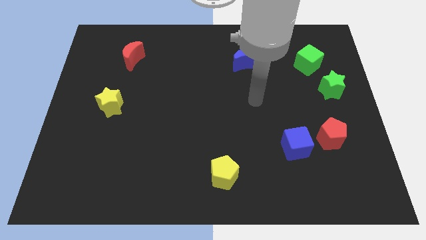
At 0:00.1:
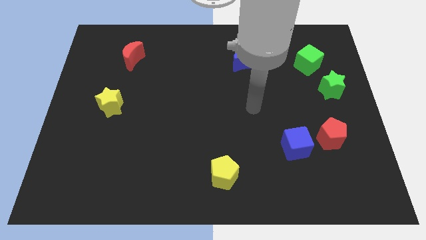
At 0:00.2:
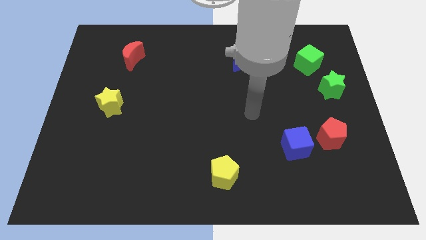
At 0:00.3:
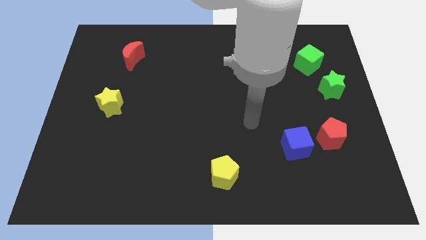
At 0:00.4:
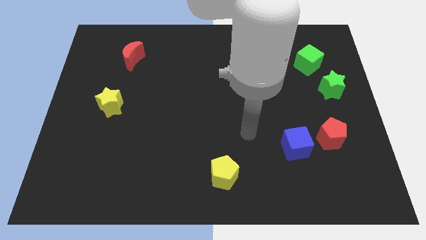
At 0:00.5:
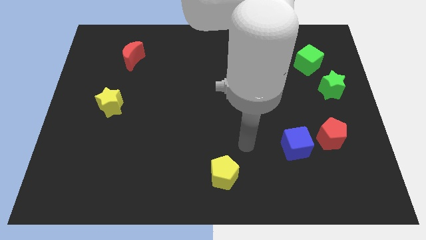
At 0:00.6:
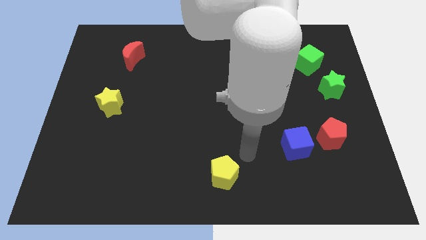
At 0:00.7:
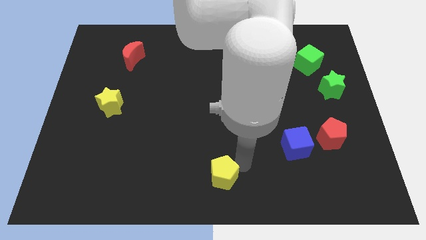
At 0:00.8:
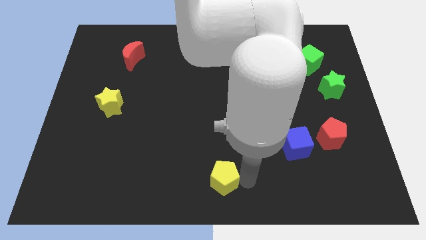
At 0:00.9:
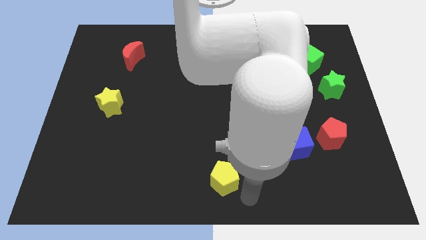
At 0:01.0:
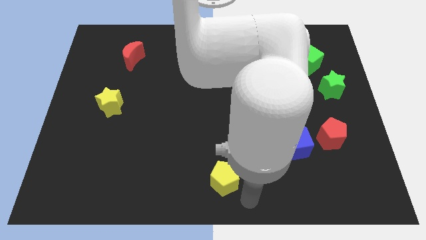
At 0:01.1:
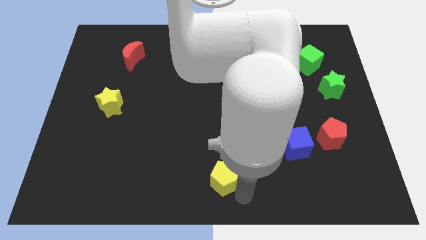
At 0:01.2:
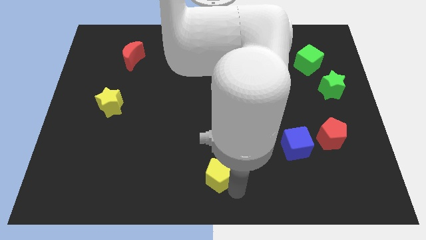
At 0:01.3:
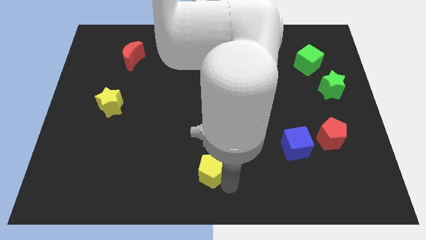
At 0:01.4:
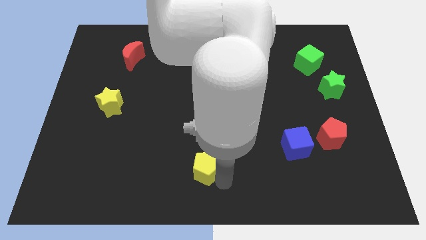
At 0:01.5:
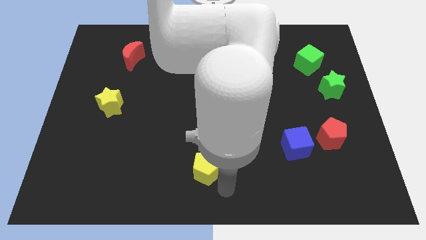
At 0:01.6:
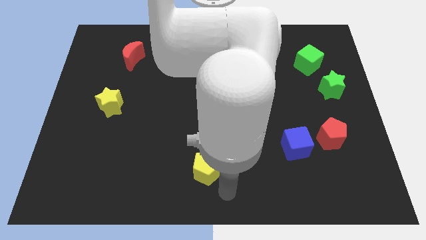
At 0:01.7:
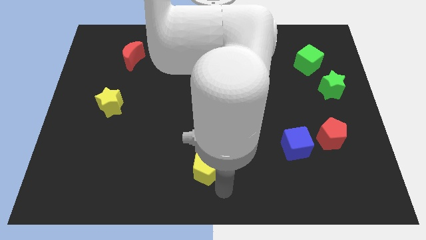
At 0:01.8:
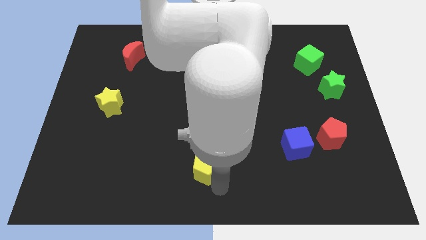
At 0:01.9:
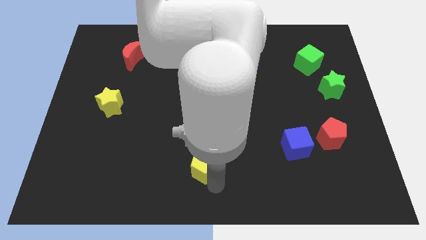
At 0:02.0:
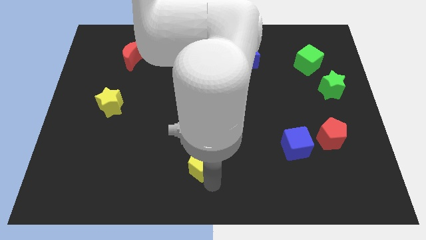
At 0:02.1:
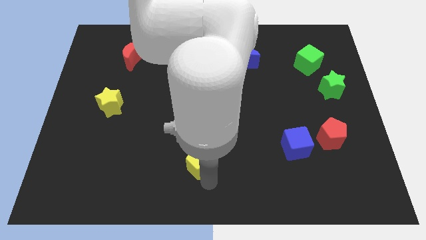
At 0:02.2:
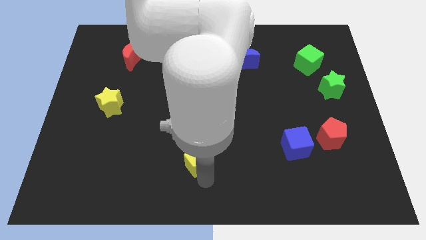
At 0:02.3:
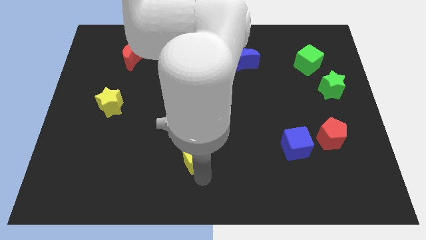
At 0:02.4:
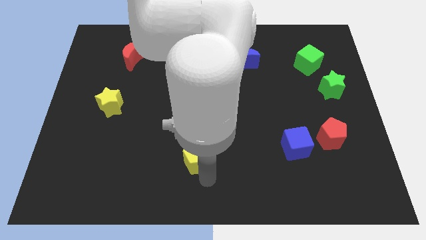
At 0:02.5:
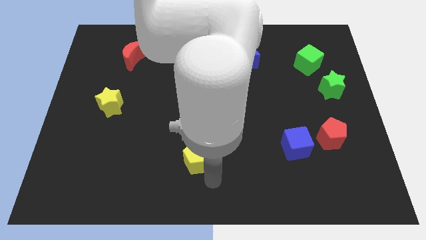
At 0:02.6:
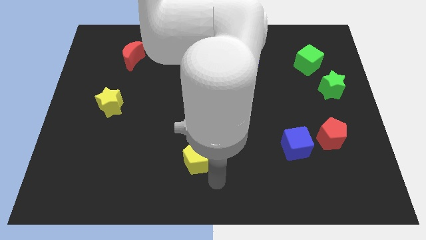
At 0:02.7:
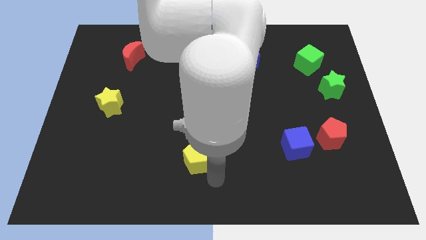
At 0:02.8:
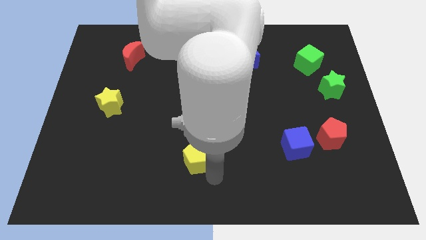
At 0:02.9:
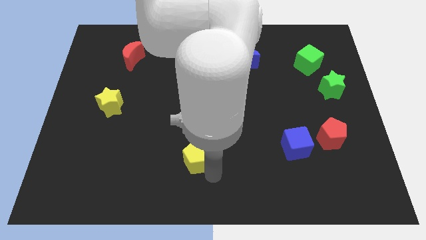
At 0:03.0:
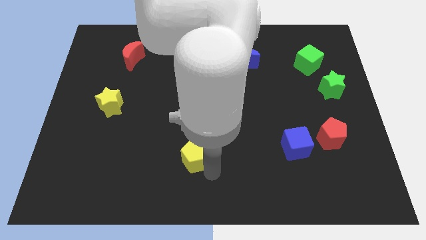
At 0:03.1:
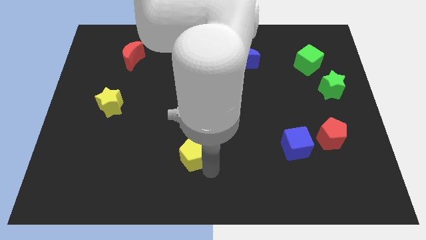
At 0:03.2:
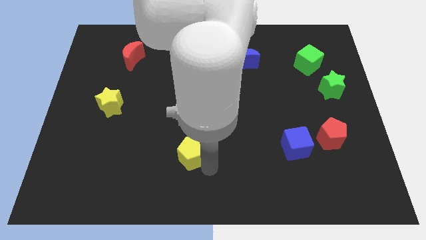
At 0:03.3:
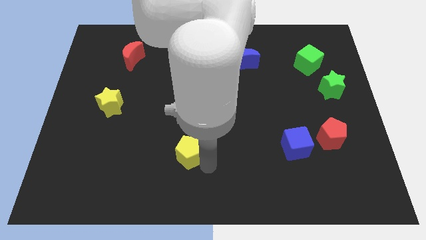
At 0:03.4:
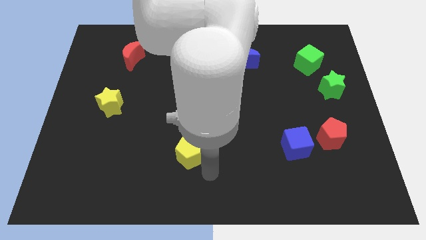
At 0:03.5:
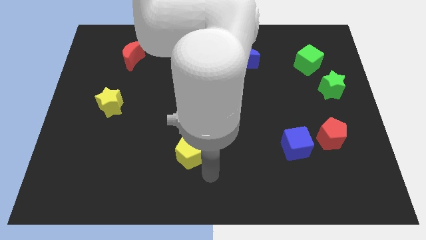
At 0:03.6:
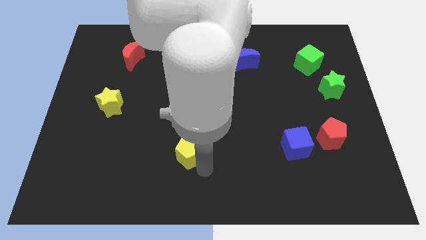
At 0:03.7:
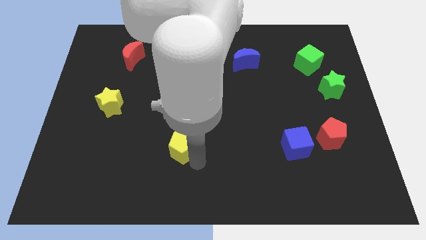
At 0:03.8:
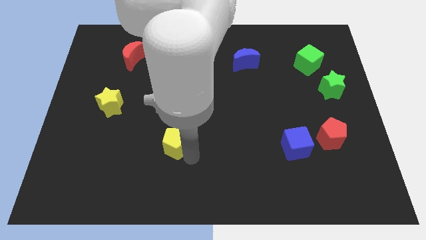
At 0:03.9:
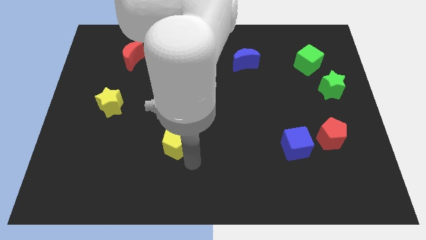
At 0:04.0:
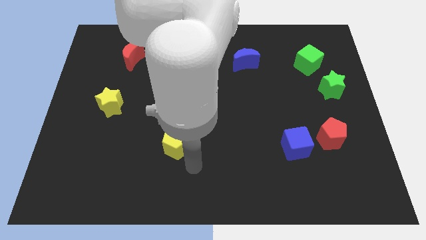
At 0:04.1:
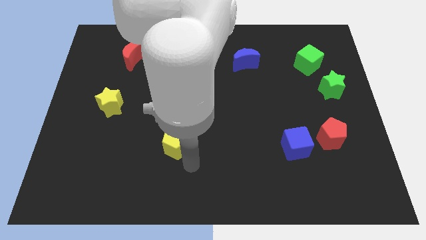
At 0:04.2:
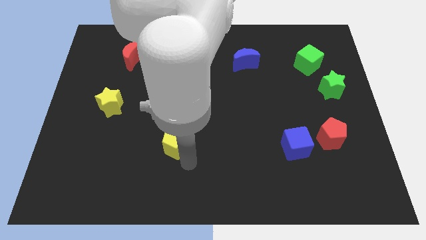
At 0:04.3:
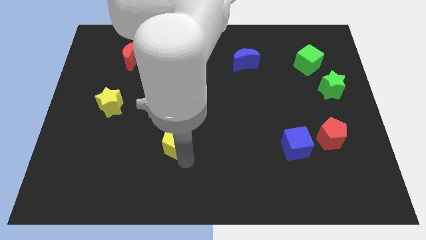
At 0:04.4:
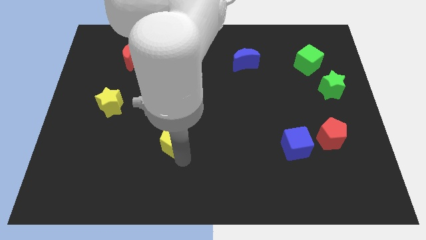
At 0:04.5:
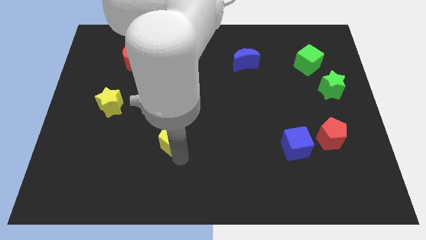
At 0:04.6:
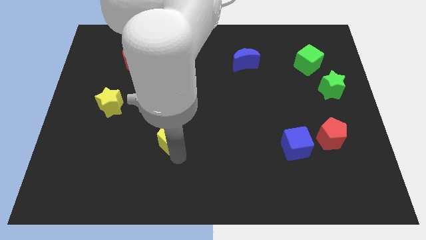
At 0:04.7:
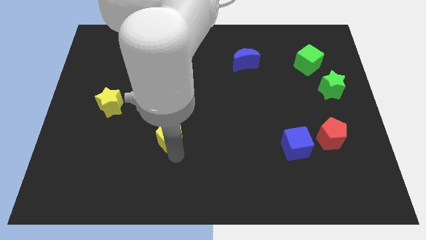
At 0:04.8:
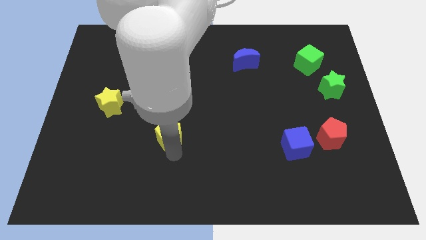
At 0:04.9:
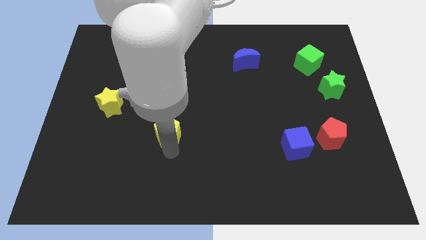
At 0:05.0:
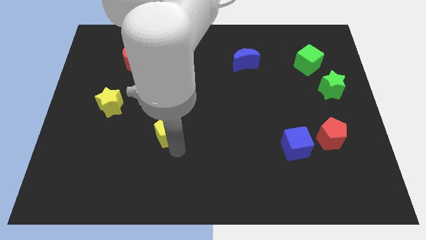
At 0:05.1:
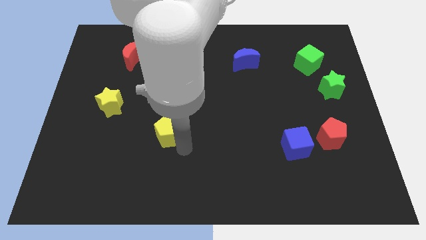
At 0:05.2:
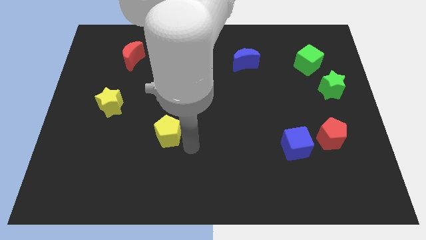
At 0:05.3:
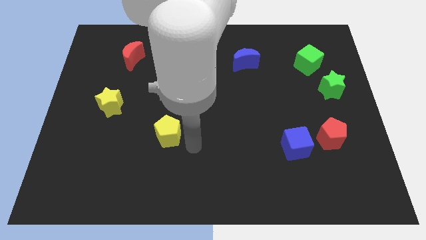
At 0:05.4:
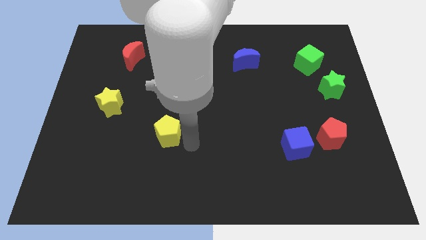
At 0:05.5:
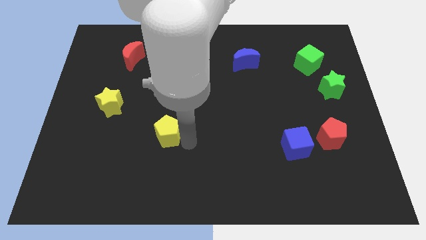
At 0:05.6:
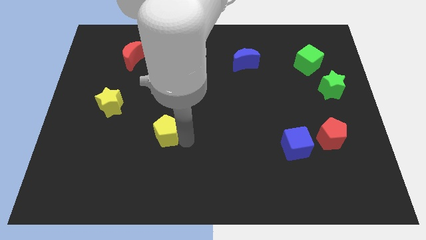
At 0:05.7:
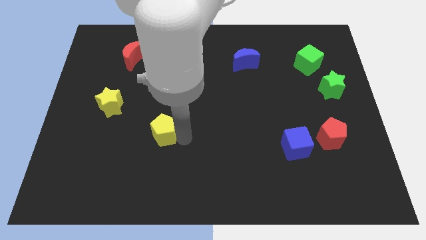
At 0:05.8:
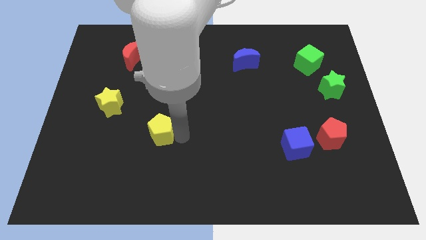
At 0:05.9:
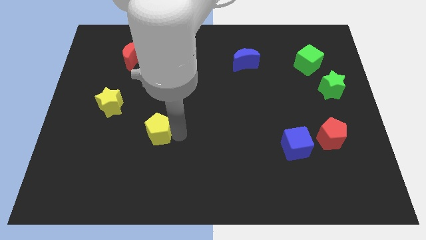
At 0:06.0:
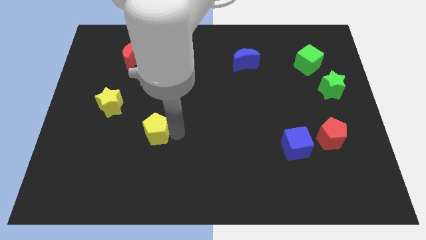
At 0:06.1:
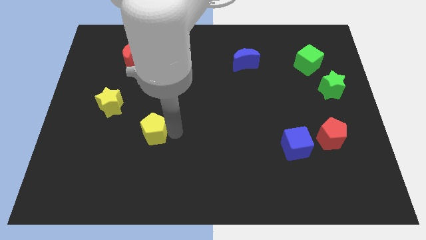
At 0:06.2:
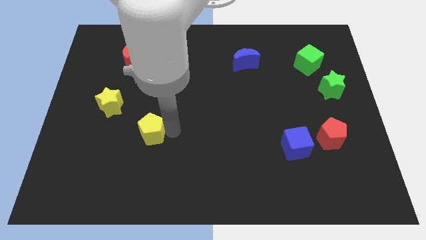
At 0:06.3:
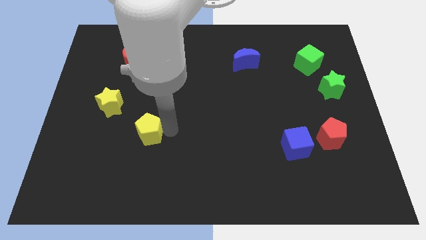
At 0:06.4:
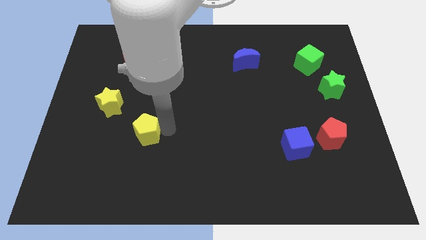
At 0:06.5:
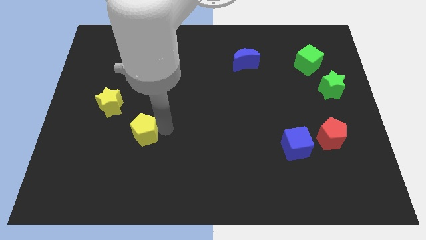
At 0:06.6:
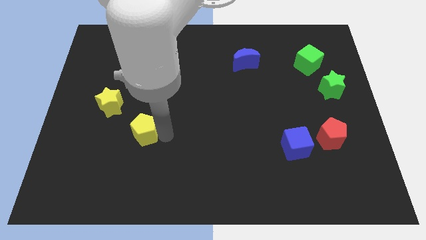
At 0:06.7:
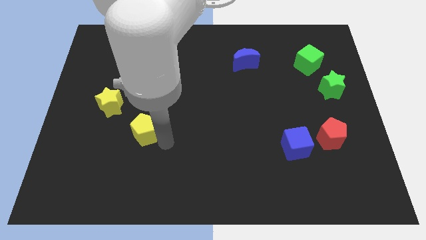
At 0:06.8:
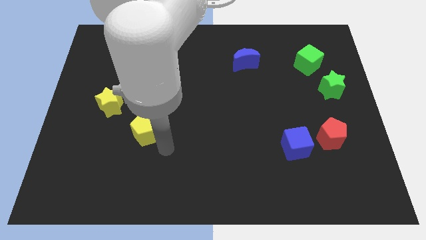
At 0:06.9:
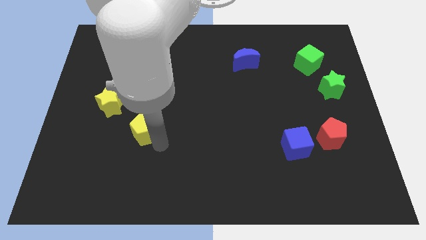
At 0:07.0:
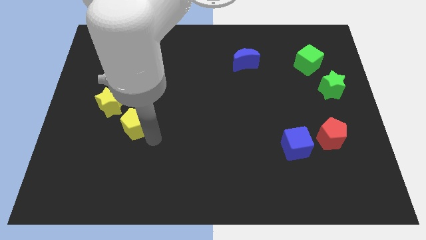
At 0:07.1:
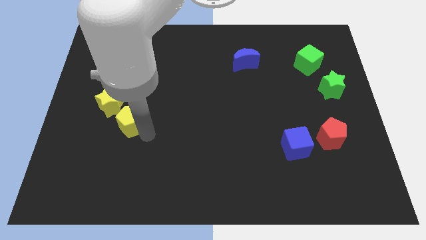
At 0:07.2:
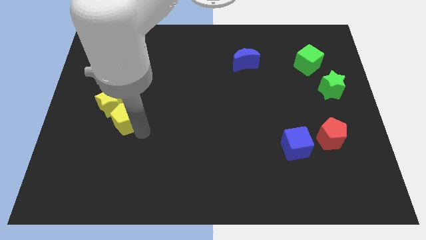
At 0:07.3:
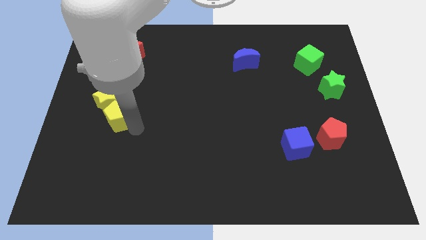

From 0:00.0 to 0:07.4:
move the yellow pentagon close to the yellow star
